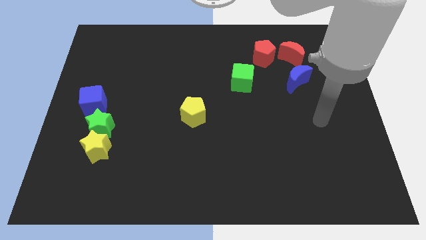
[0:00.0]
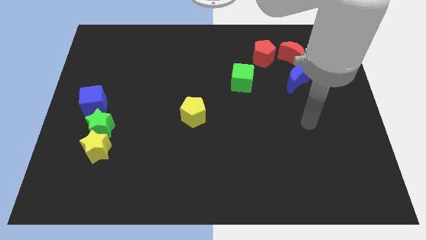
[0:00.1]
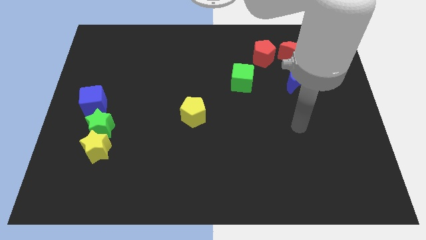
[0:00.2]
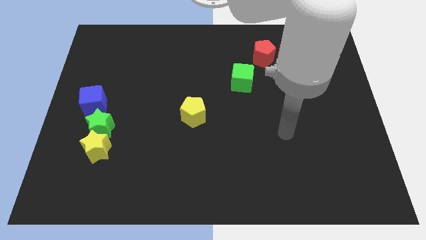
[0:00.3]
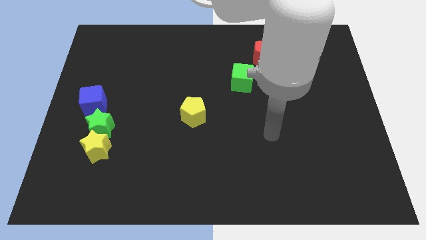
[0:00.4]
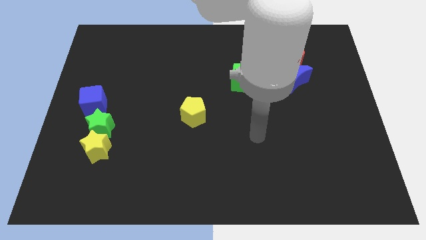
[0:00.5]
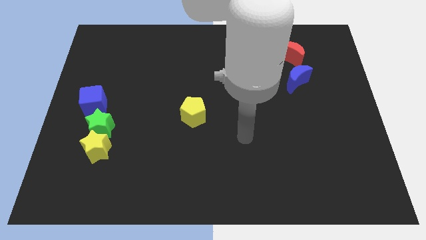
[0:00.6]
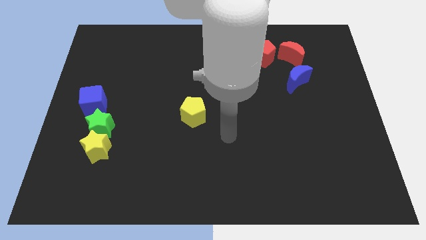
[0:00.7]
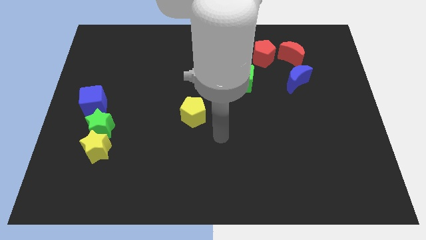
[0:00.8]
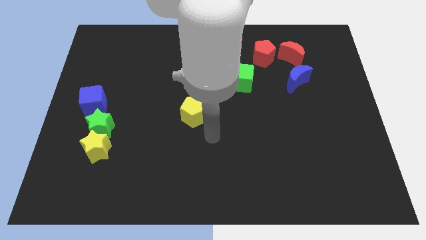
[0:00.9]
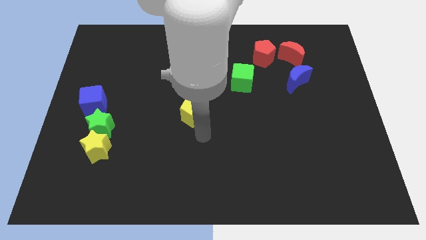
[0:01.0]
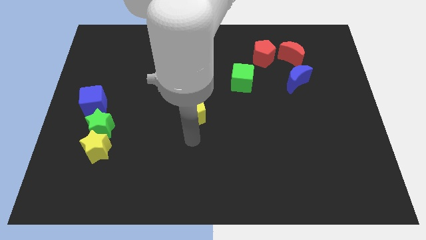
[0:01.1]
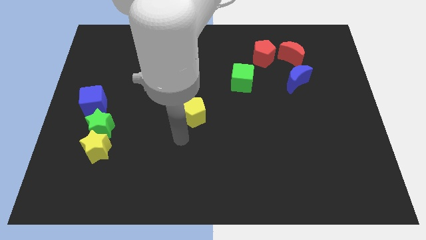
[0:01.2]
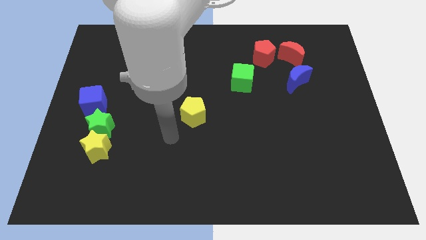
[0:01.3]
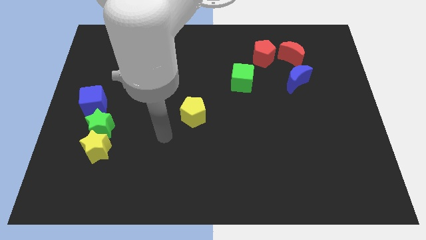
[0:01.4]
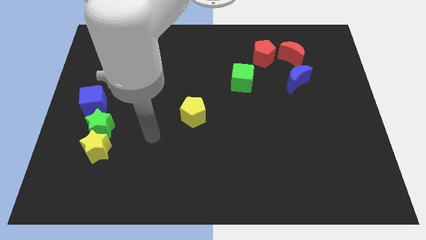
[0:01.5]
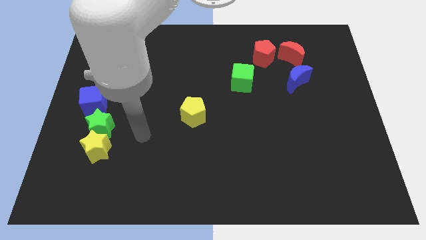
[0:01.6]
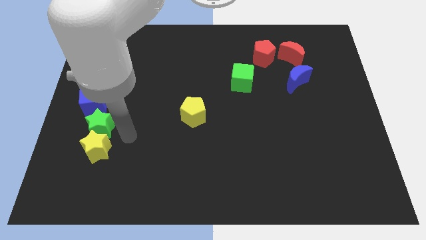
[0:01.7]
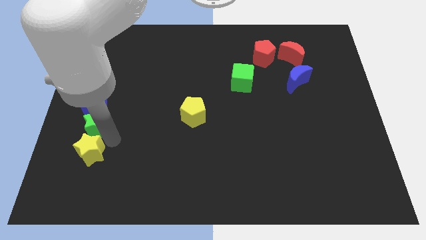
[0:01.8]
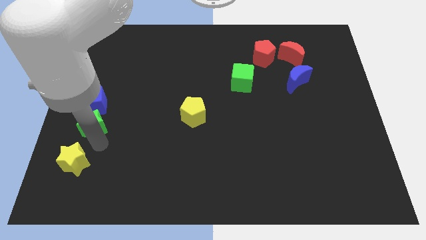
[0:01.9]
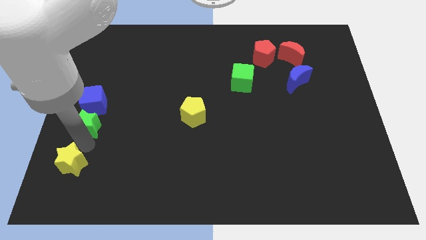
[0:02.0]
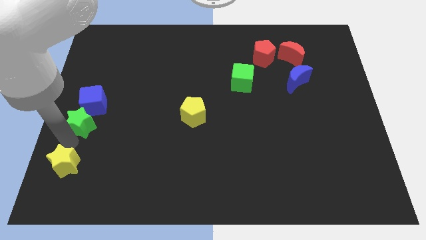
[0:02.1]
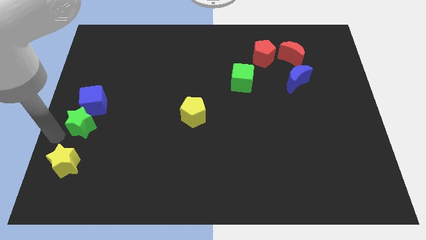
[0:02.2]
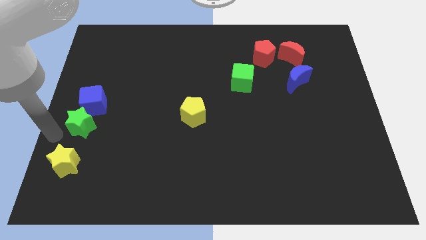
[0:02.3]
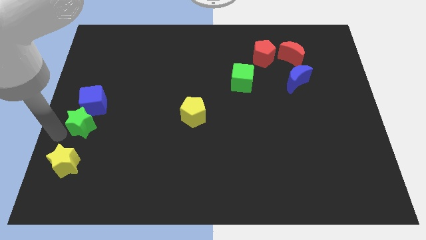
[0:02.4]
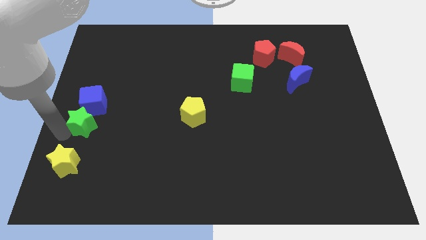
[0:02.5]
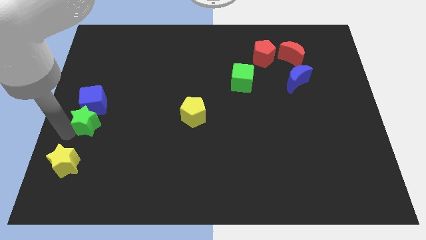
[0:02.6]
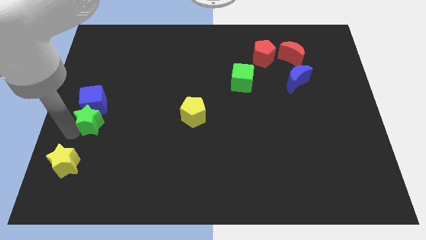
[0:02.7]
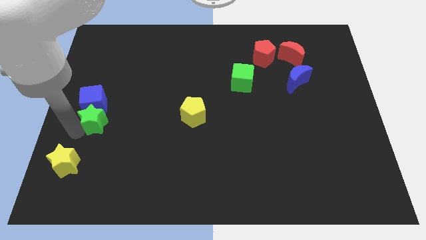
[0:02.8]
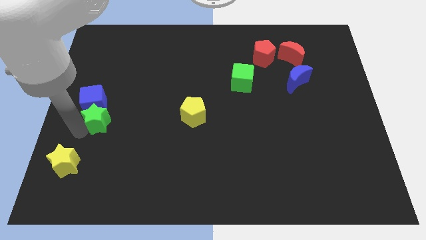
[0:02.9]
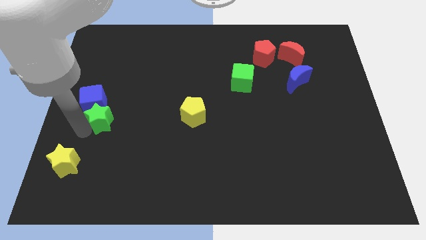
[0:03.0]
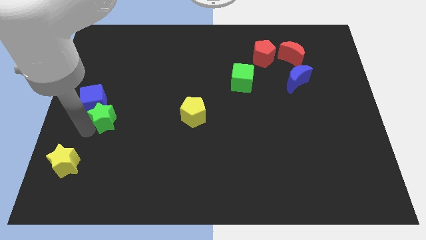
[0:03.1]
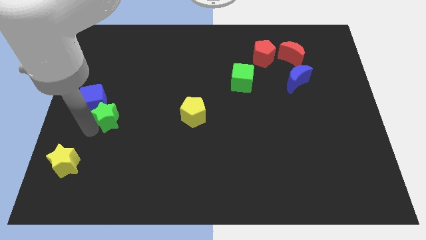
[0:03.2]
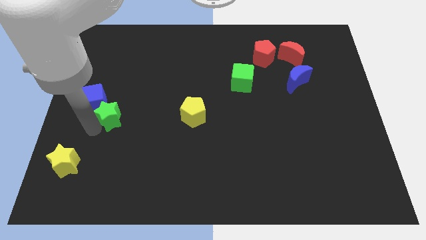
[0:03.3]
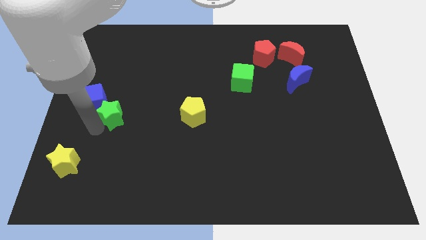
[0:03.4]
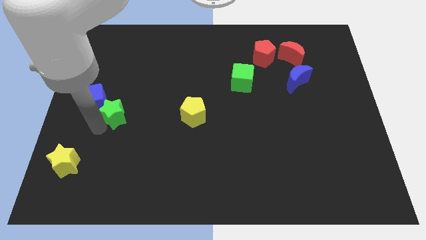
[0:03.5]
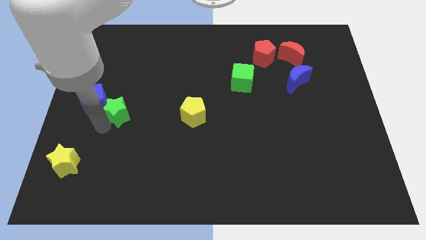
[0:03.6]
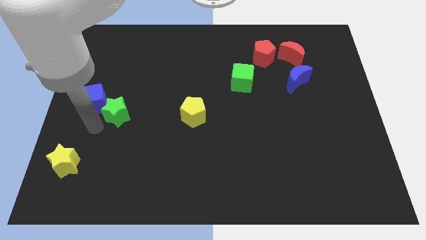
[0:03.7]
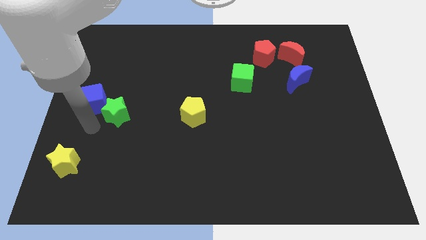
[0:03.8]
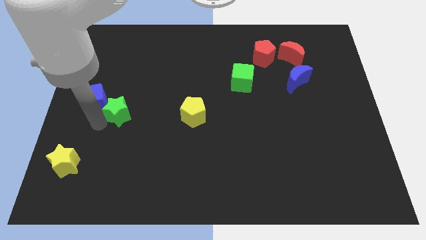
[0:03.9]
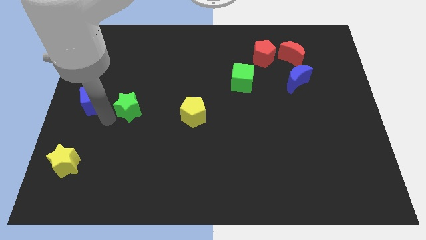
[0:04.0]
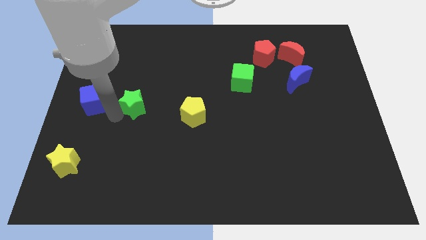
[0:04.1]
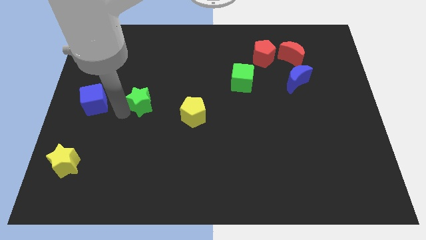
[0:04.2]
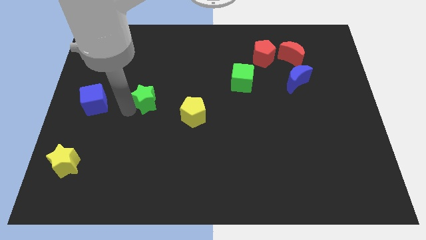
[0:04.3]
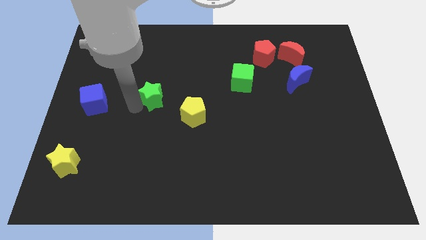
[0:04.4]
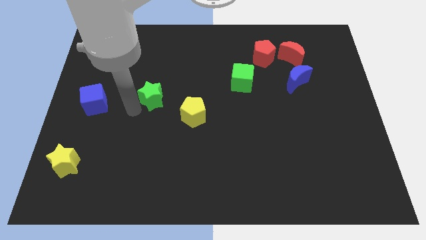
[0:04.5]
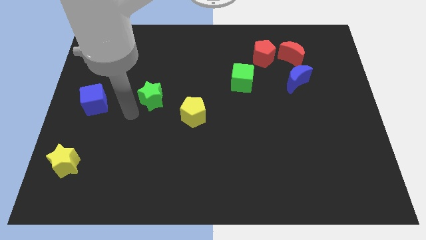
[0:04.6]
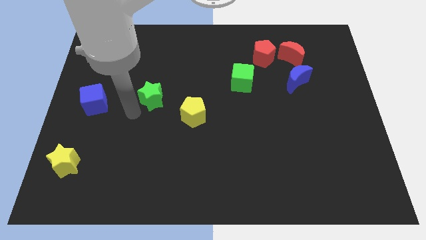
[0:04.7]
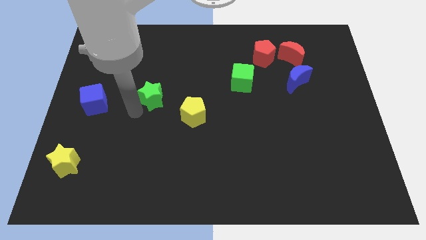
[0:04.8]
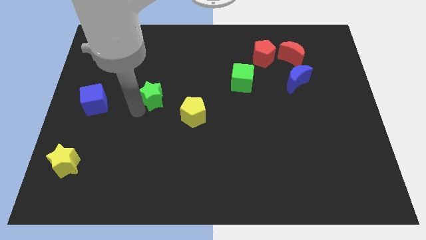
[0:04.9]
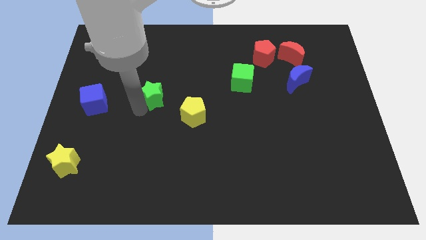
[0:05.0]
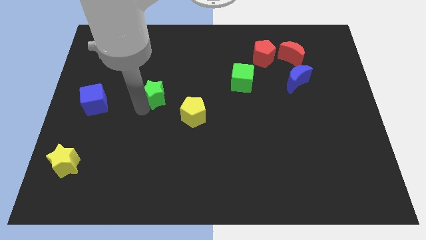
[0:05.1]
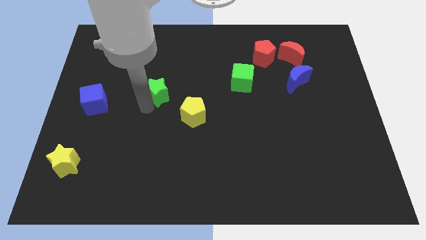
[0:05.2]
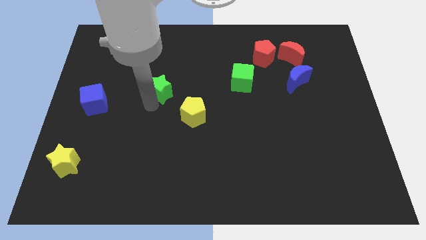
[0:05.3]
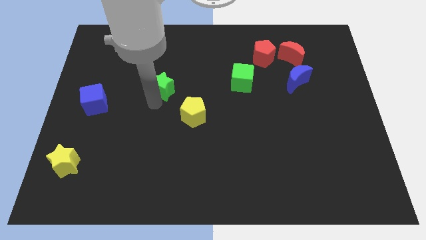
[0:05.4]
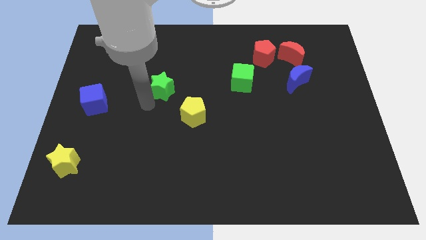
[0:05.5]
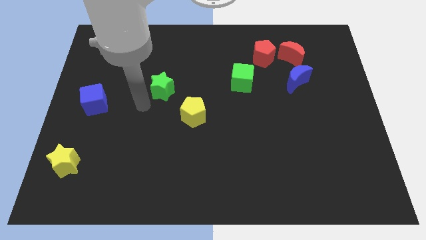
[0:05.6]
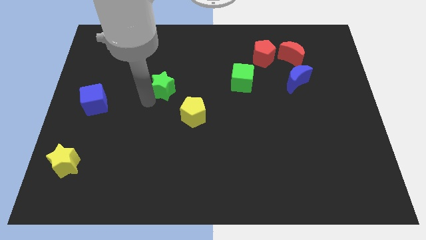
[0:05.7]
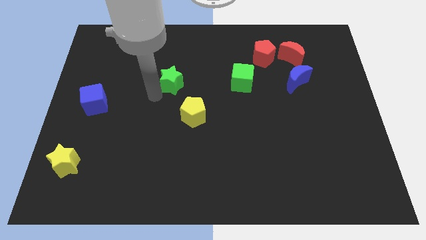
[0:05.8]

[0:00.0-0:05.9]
push the green star diagonally up and to the right

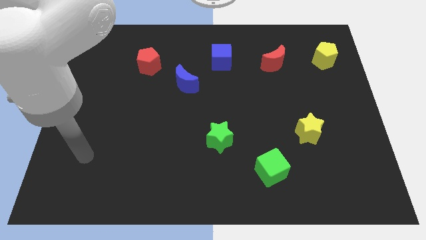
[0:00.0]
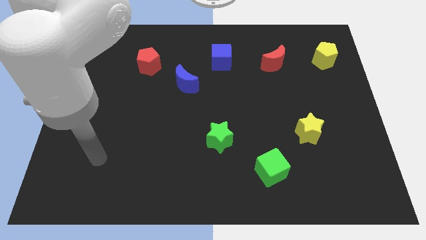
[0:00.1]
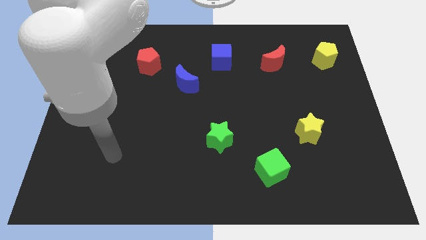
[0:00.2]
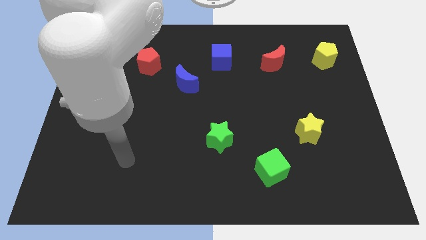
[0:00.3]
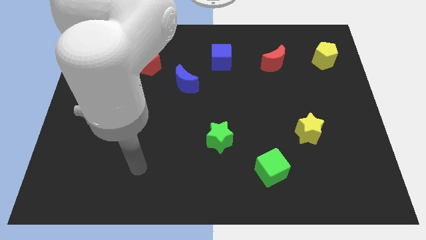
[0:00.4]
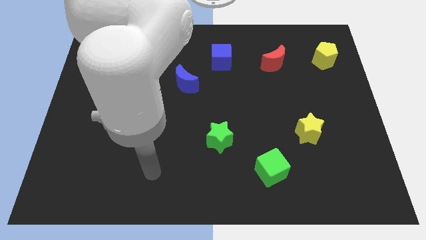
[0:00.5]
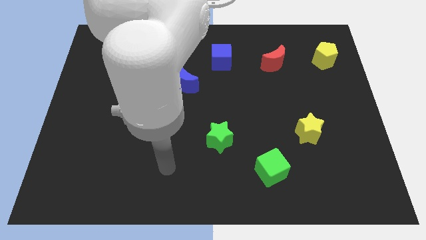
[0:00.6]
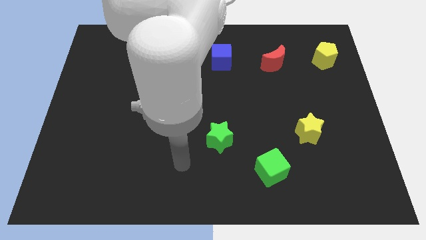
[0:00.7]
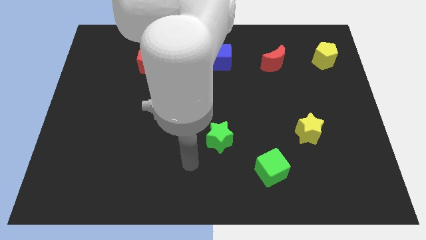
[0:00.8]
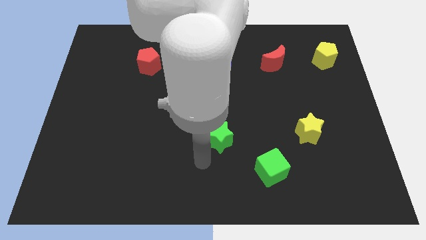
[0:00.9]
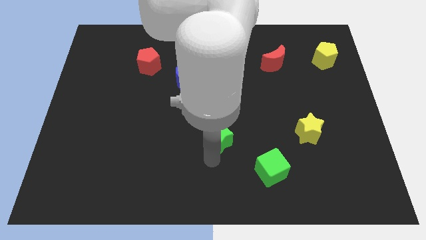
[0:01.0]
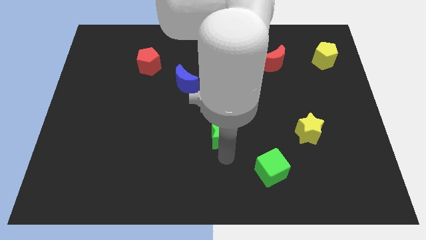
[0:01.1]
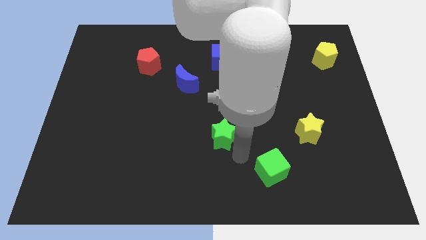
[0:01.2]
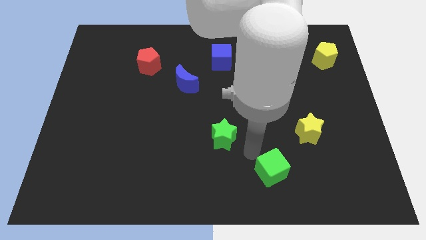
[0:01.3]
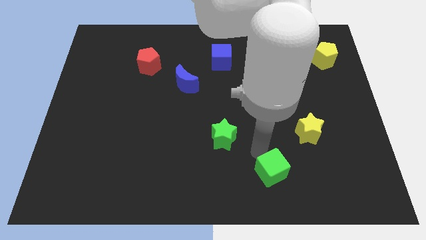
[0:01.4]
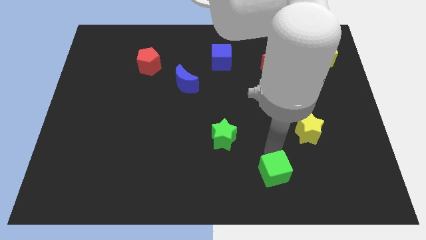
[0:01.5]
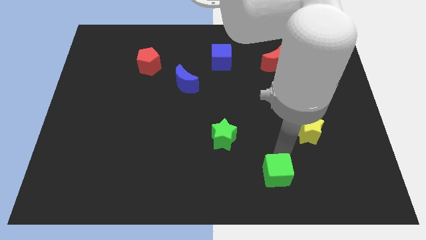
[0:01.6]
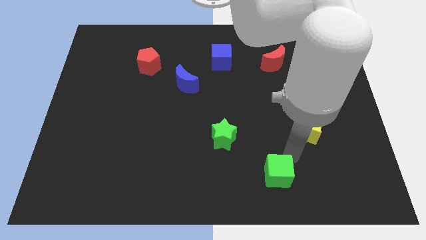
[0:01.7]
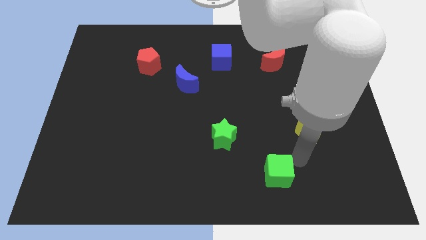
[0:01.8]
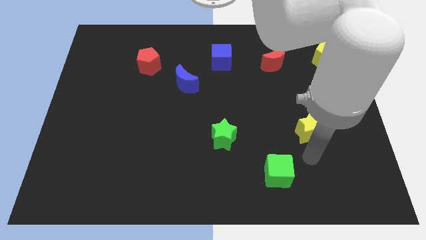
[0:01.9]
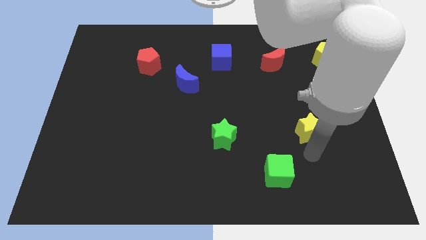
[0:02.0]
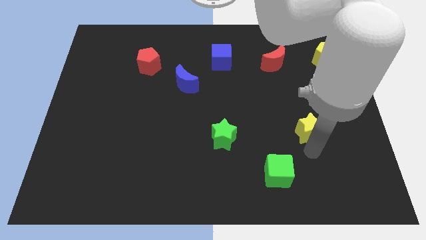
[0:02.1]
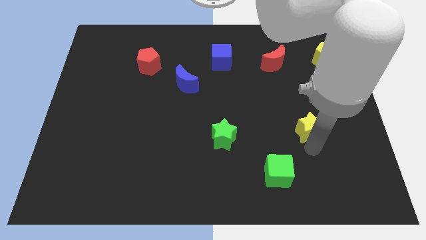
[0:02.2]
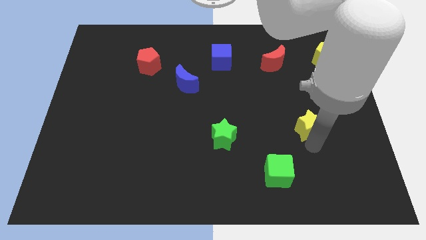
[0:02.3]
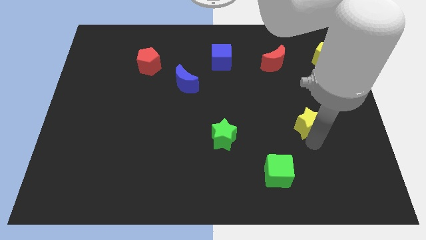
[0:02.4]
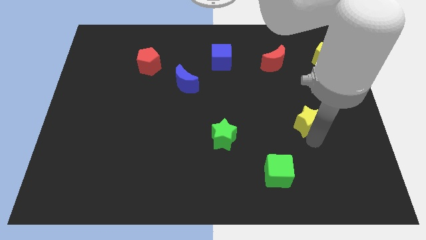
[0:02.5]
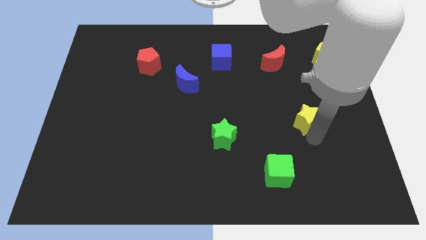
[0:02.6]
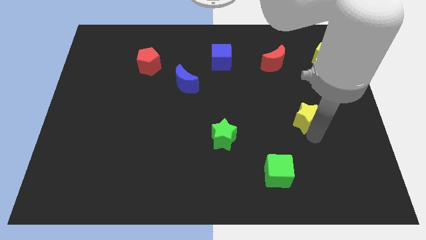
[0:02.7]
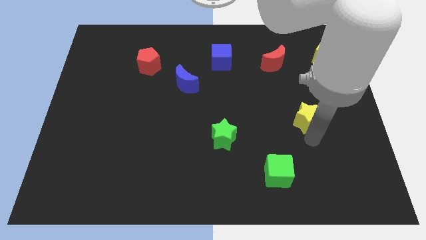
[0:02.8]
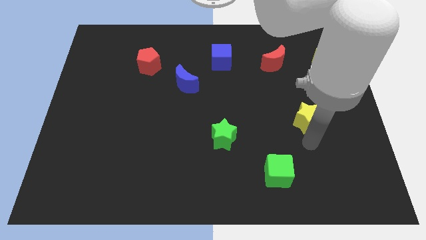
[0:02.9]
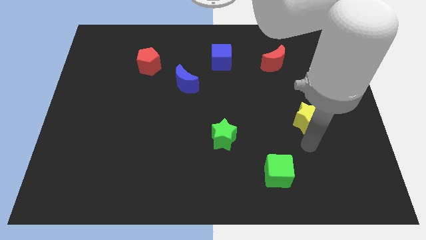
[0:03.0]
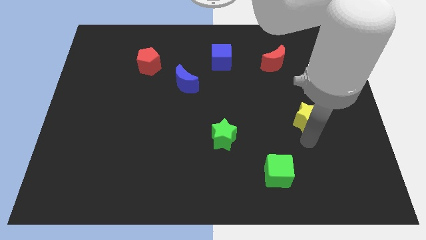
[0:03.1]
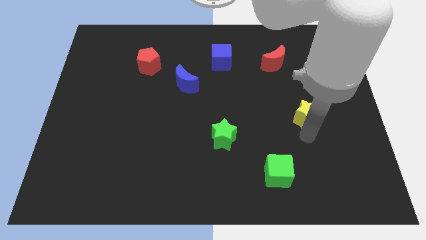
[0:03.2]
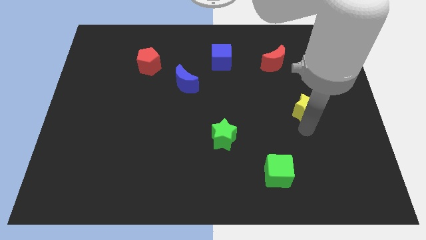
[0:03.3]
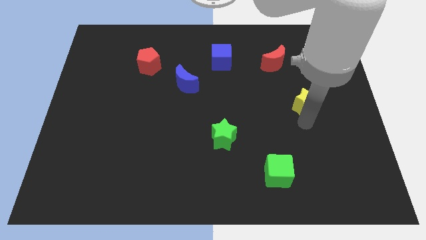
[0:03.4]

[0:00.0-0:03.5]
slightly push the yellow star up
